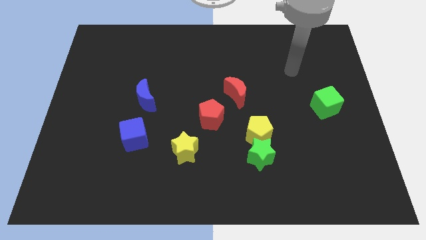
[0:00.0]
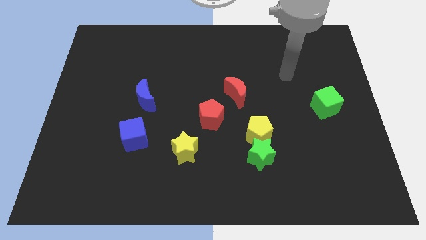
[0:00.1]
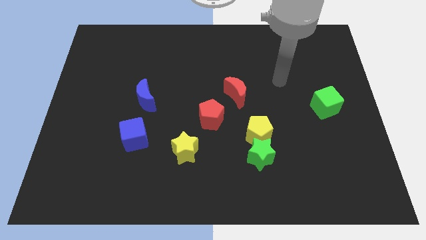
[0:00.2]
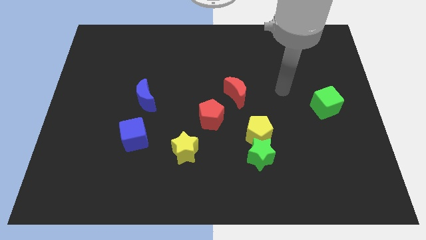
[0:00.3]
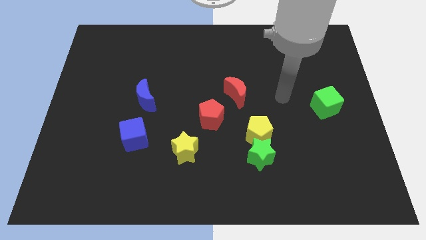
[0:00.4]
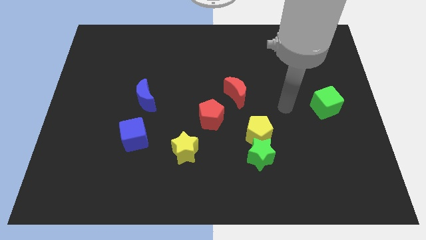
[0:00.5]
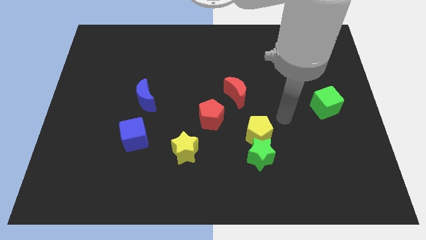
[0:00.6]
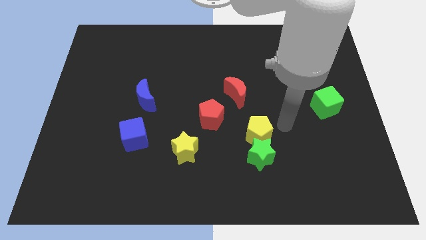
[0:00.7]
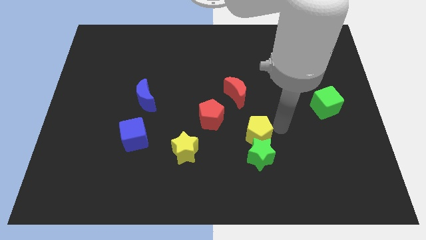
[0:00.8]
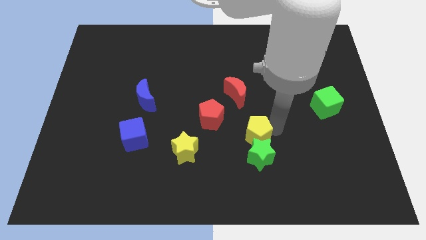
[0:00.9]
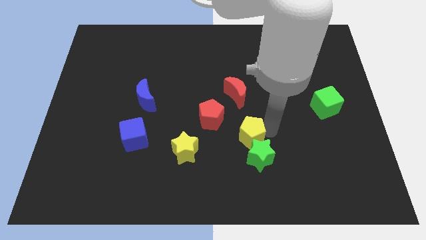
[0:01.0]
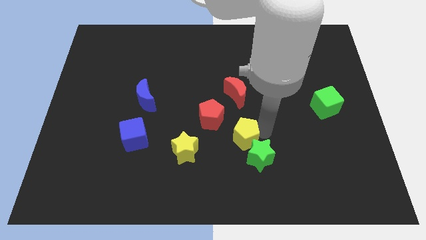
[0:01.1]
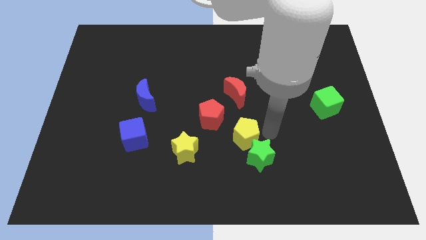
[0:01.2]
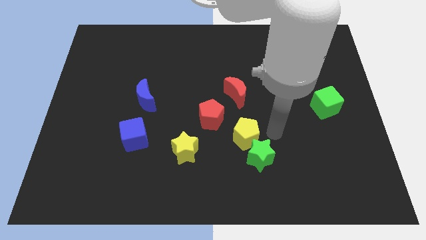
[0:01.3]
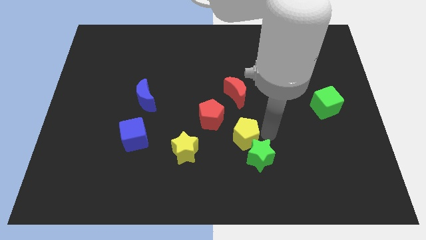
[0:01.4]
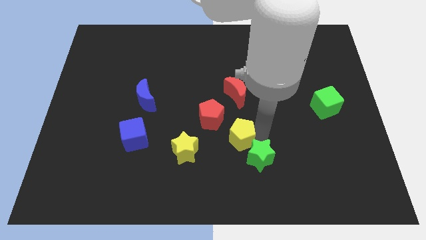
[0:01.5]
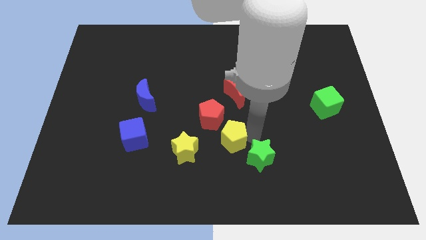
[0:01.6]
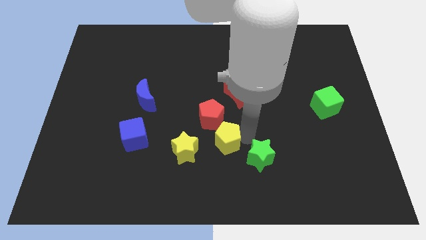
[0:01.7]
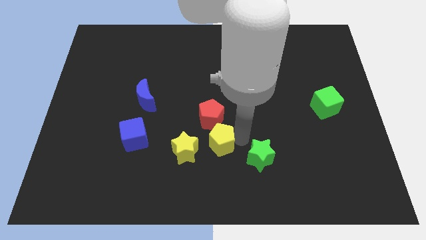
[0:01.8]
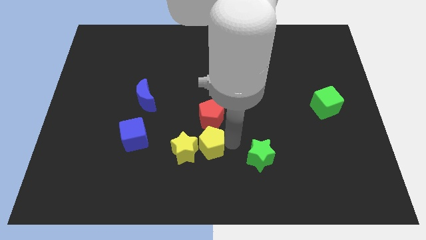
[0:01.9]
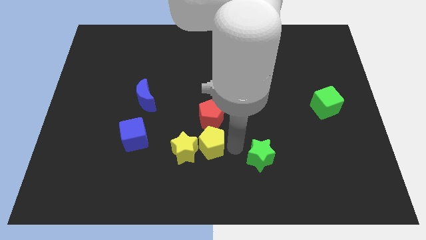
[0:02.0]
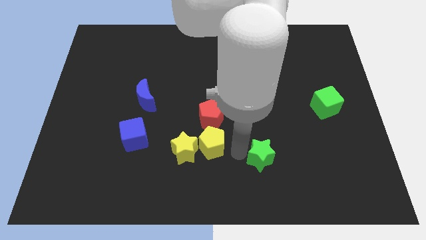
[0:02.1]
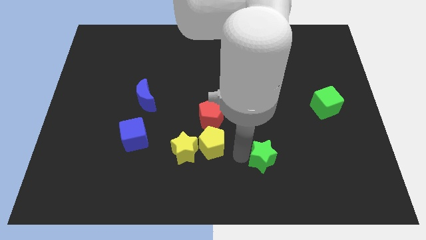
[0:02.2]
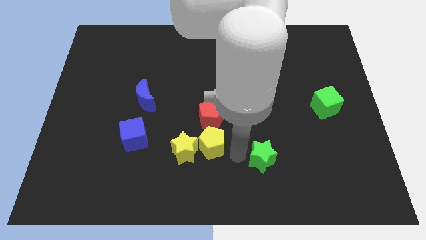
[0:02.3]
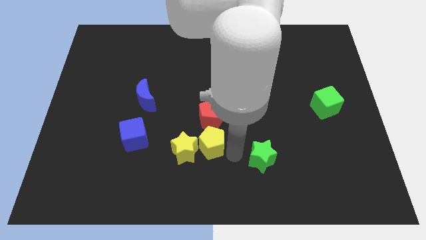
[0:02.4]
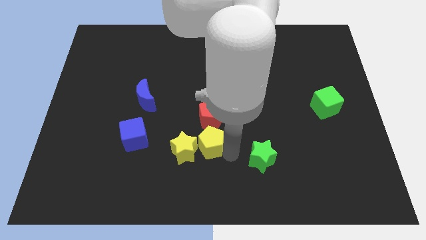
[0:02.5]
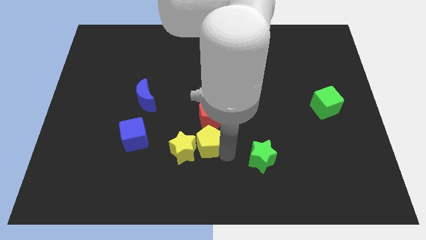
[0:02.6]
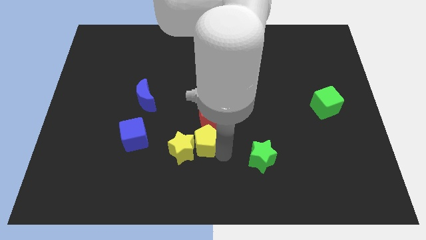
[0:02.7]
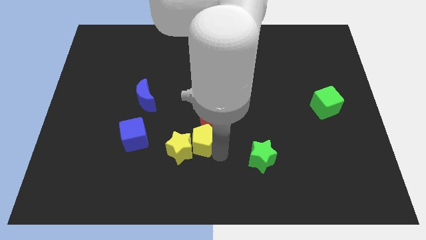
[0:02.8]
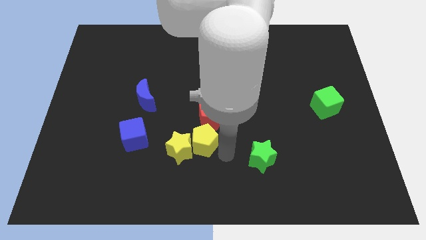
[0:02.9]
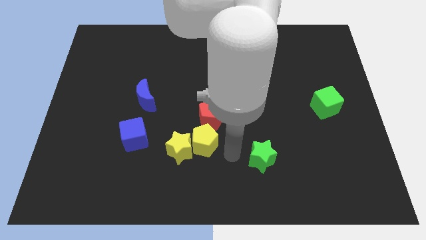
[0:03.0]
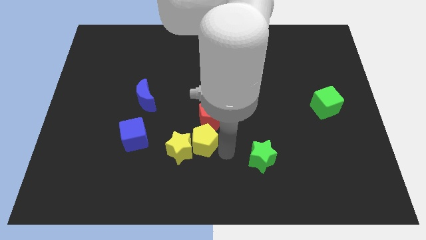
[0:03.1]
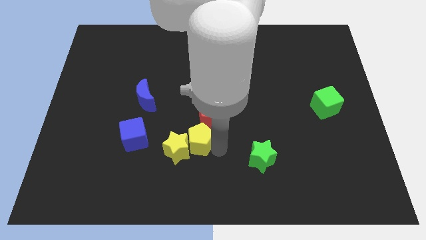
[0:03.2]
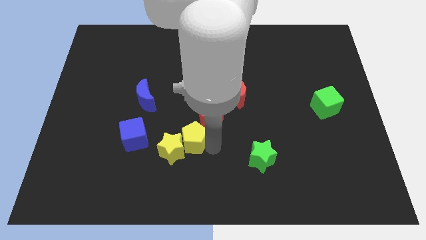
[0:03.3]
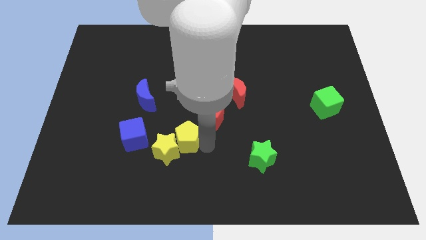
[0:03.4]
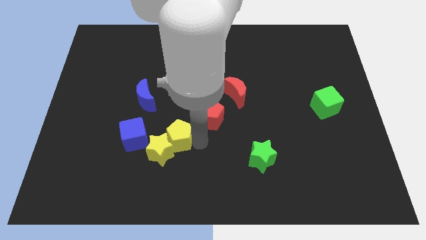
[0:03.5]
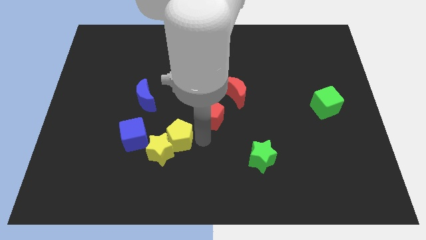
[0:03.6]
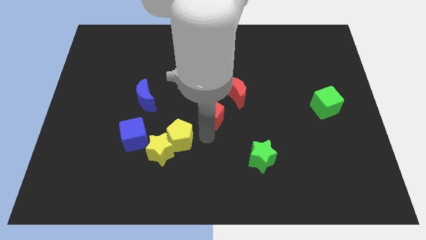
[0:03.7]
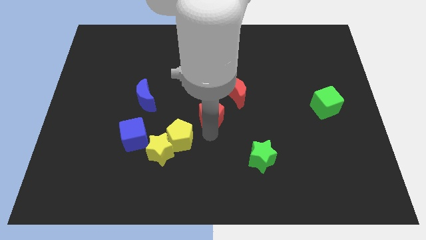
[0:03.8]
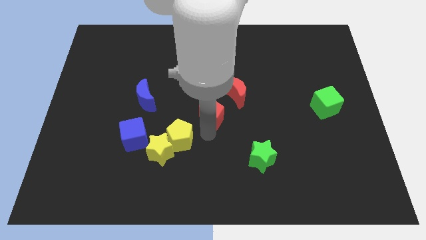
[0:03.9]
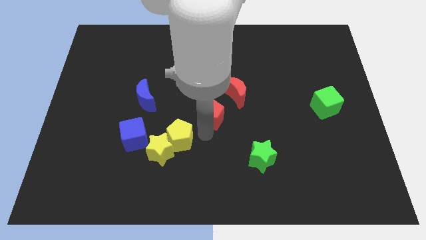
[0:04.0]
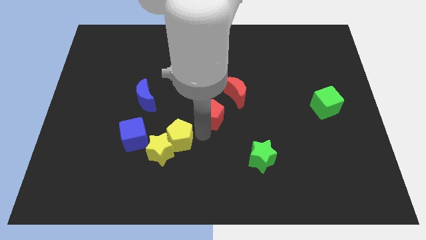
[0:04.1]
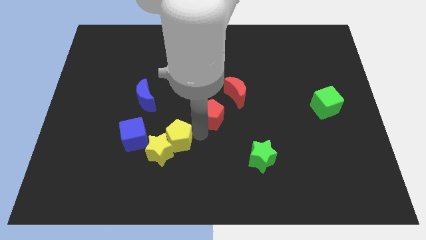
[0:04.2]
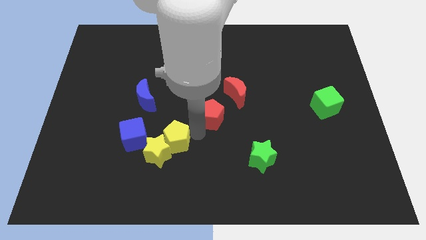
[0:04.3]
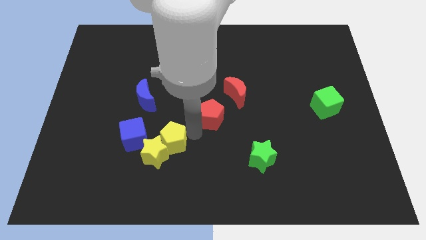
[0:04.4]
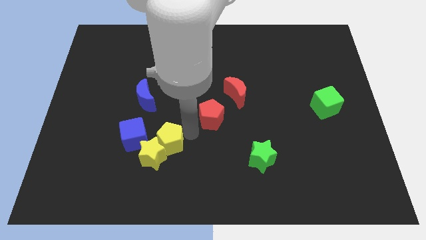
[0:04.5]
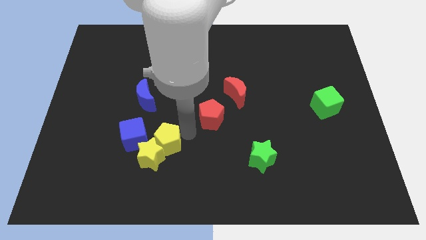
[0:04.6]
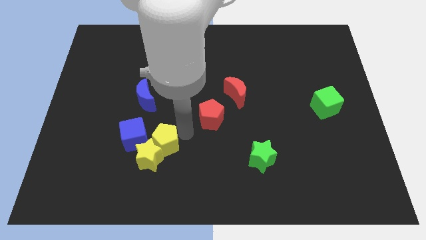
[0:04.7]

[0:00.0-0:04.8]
slide the yellow pentagon left

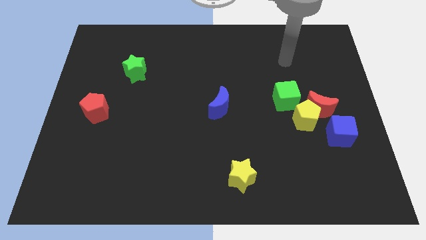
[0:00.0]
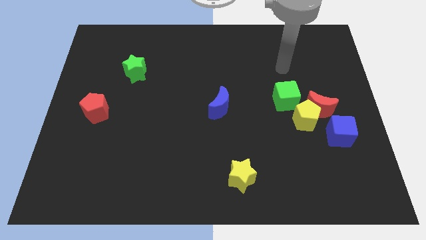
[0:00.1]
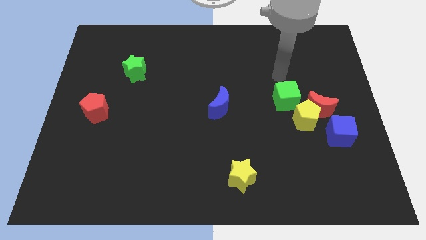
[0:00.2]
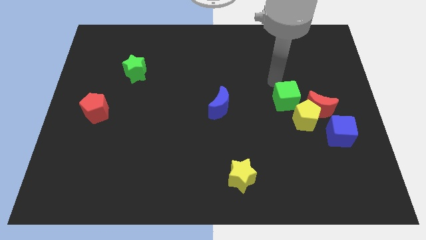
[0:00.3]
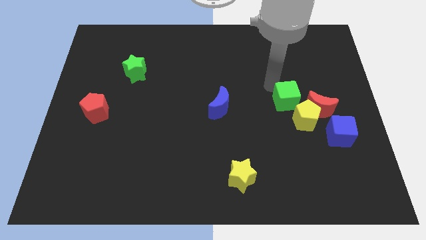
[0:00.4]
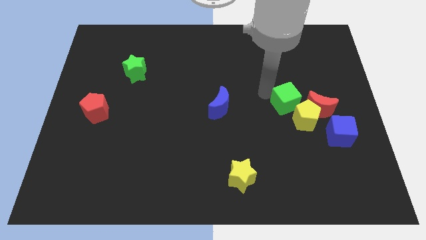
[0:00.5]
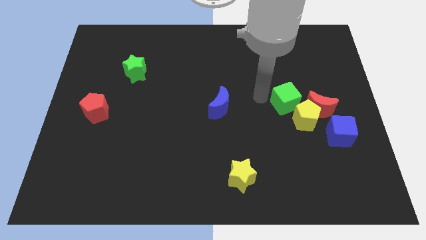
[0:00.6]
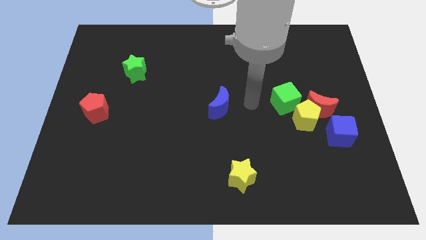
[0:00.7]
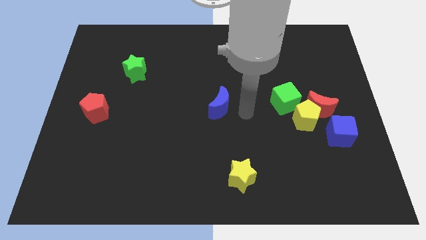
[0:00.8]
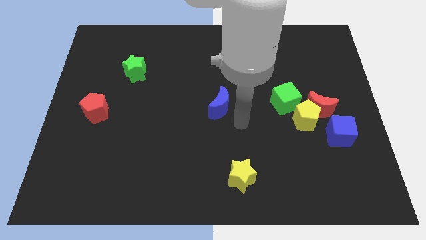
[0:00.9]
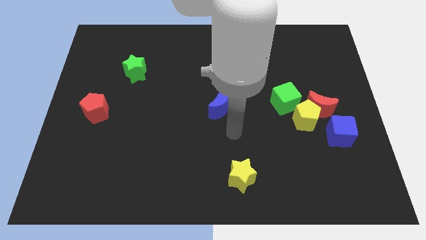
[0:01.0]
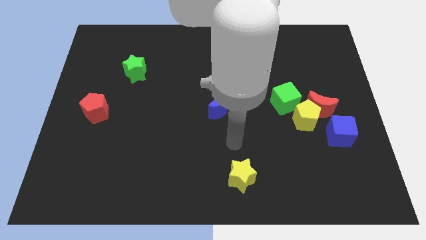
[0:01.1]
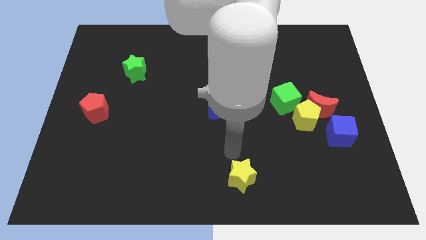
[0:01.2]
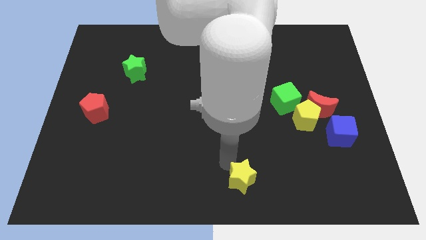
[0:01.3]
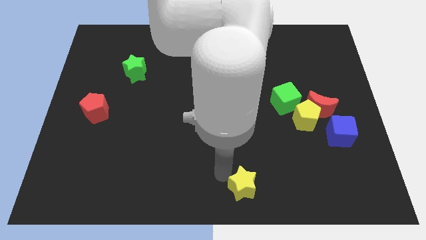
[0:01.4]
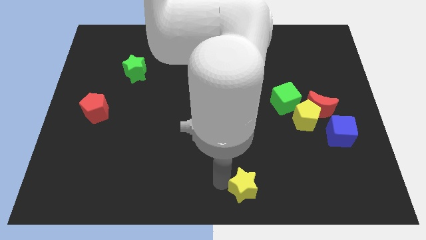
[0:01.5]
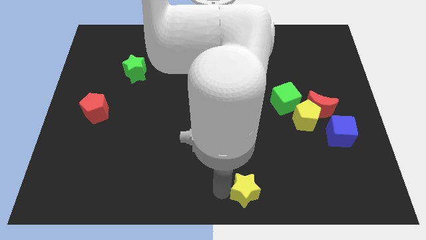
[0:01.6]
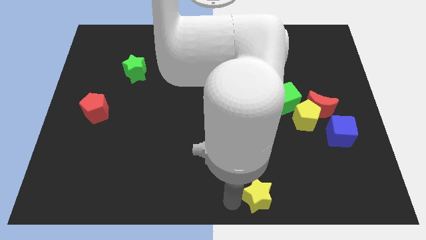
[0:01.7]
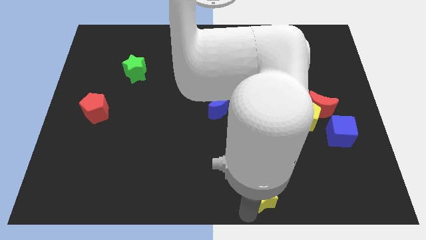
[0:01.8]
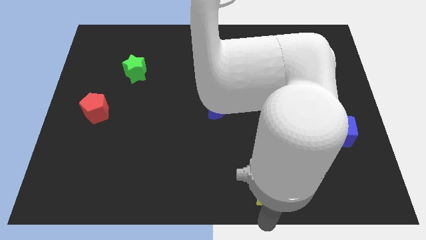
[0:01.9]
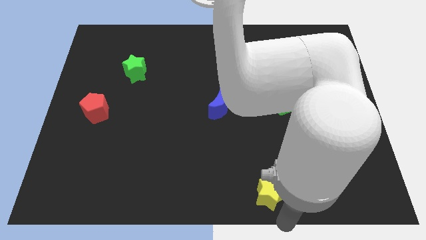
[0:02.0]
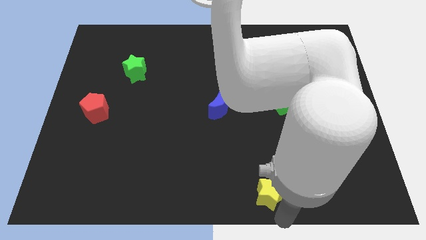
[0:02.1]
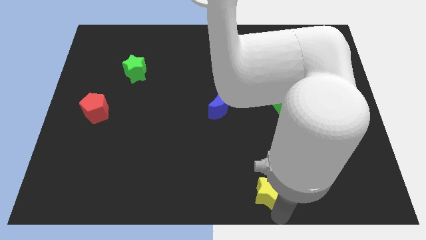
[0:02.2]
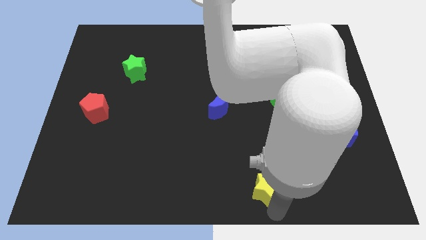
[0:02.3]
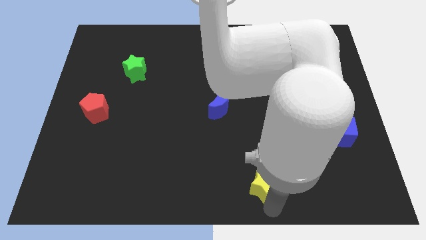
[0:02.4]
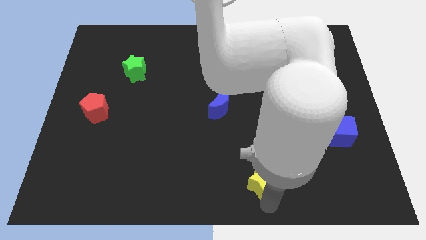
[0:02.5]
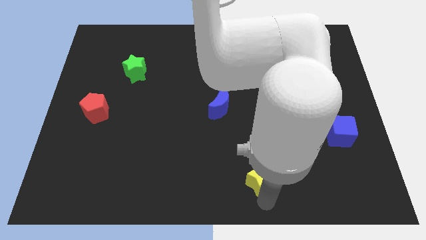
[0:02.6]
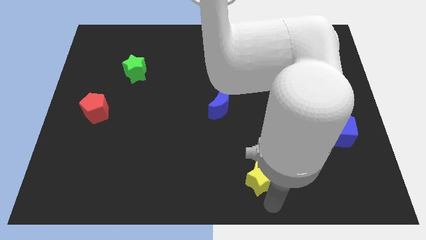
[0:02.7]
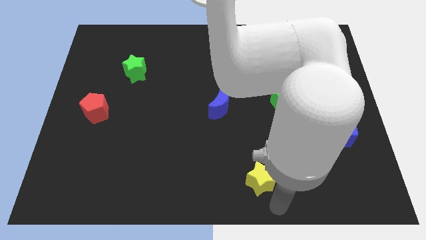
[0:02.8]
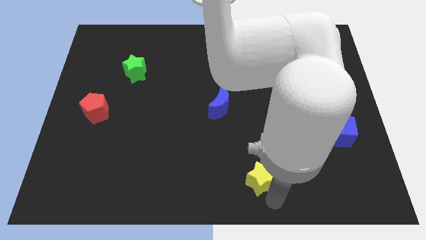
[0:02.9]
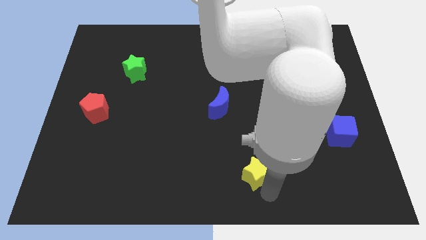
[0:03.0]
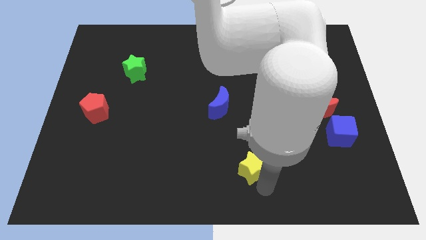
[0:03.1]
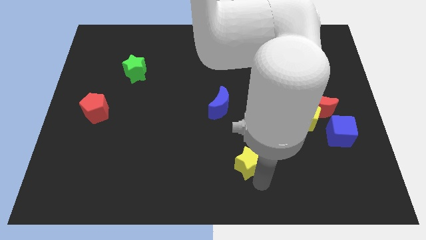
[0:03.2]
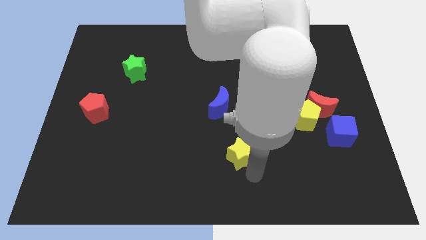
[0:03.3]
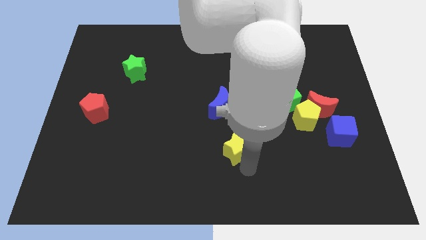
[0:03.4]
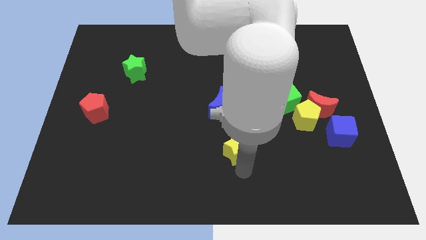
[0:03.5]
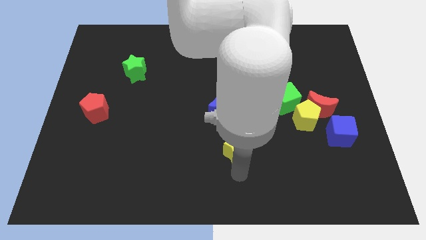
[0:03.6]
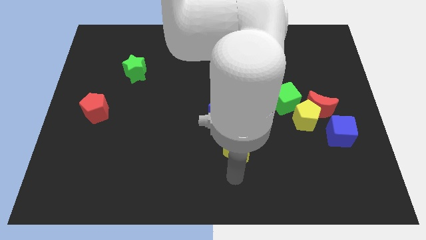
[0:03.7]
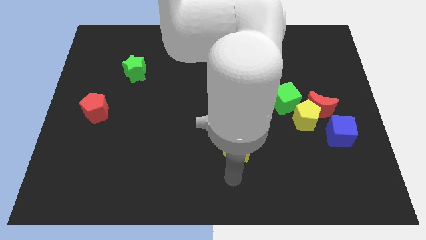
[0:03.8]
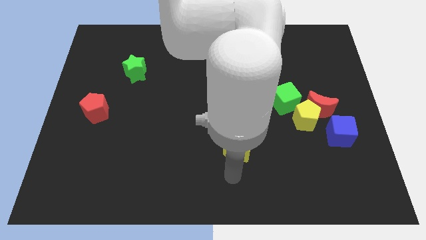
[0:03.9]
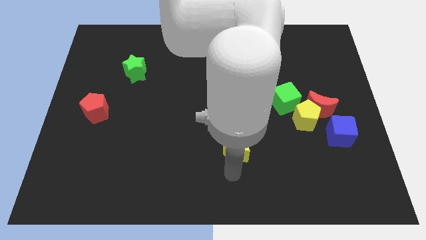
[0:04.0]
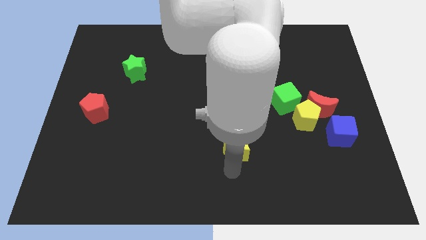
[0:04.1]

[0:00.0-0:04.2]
slide the yellow star up somewhat
